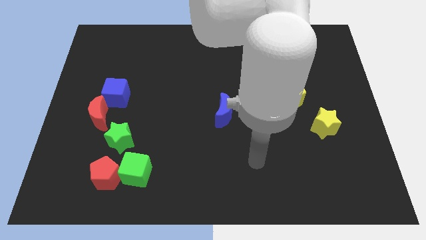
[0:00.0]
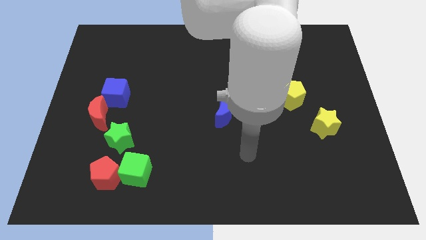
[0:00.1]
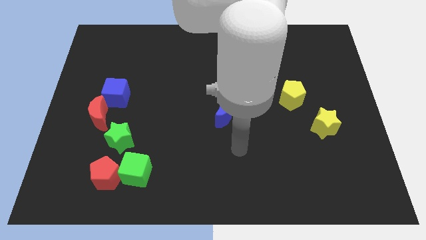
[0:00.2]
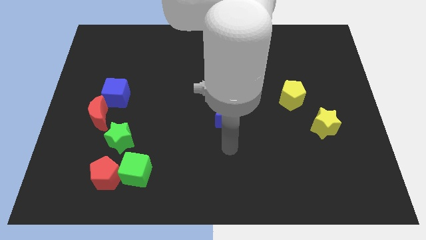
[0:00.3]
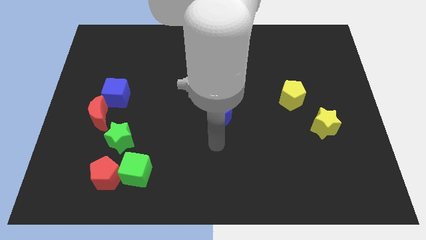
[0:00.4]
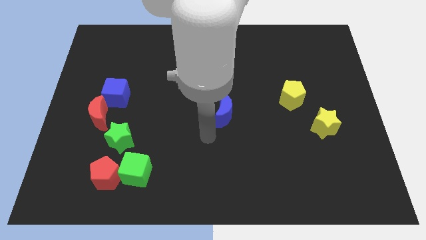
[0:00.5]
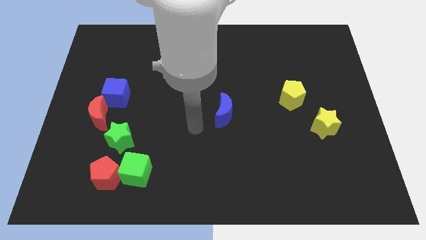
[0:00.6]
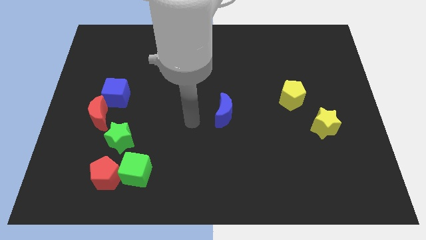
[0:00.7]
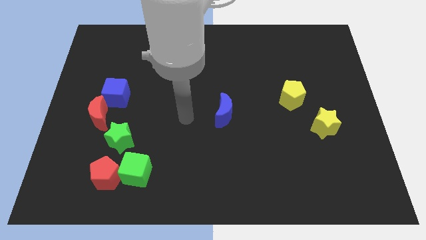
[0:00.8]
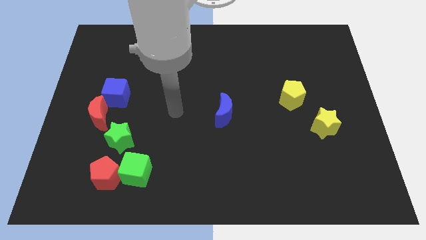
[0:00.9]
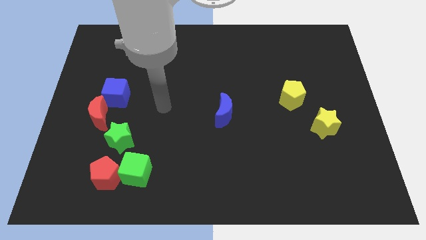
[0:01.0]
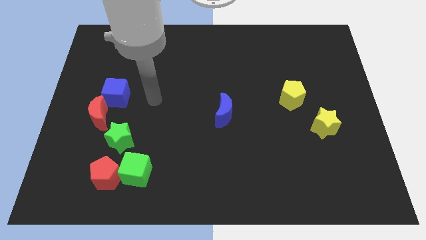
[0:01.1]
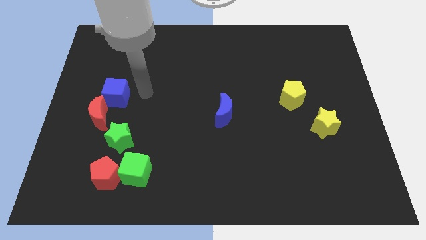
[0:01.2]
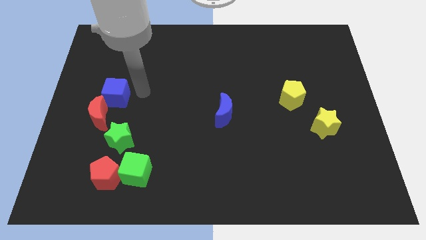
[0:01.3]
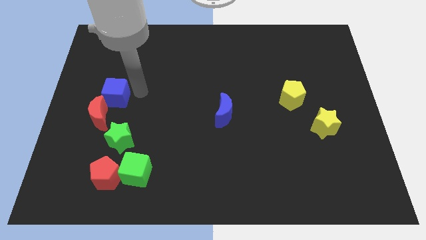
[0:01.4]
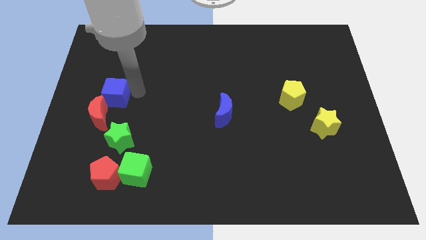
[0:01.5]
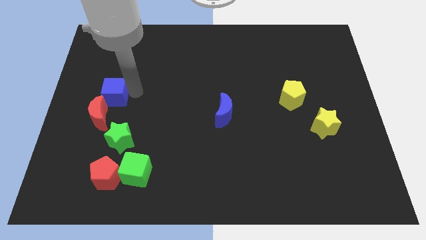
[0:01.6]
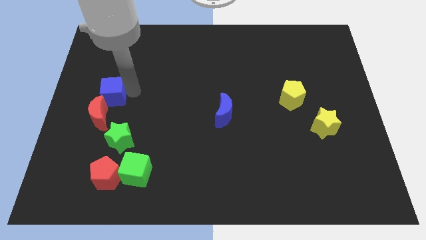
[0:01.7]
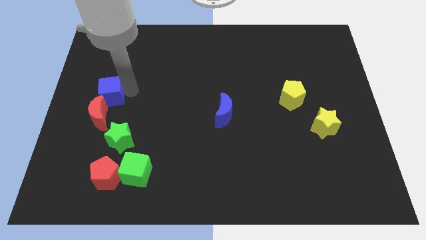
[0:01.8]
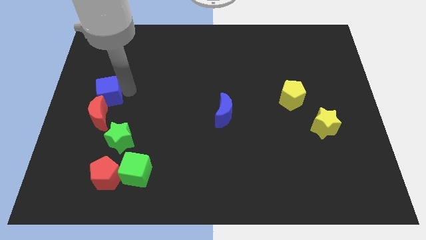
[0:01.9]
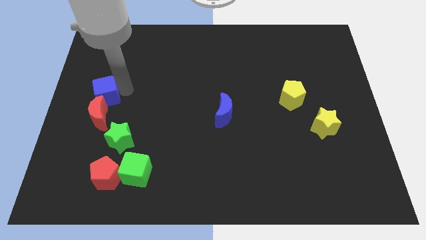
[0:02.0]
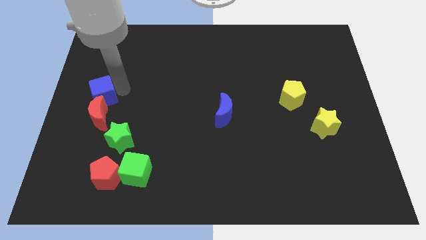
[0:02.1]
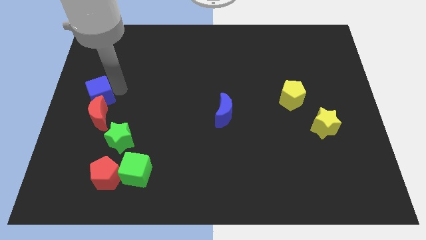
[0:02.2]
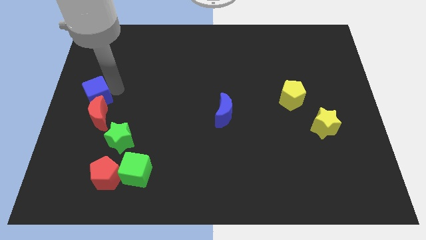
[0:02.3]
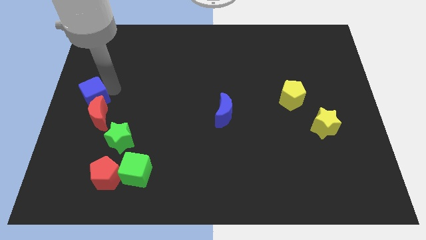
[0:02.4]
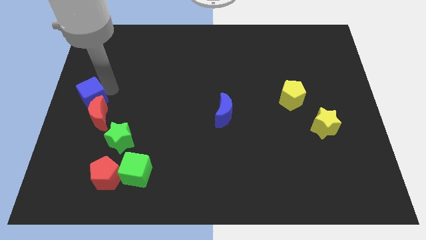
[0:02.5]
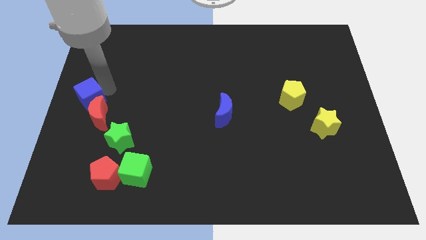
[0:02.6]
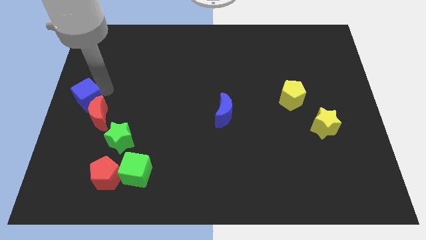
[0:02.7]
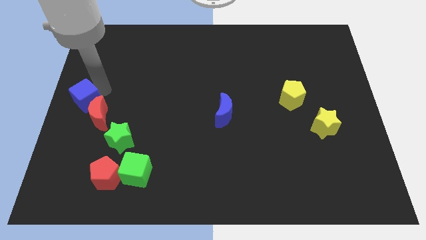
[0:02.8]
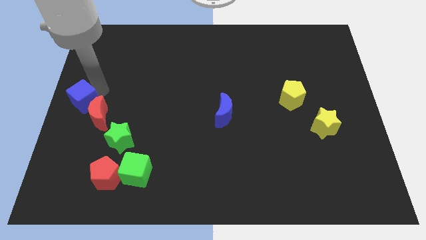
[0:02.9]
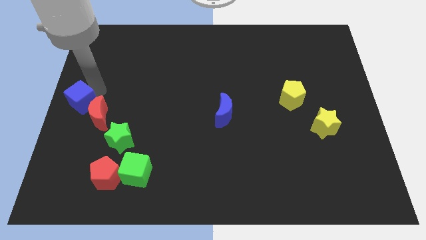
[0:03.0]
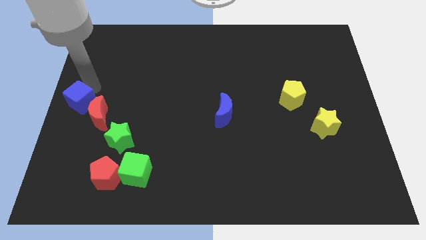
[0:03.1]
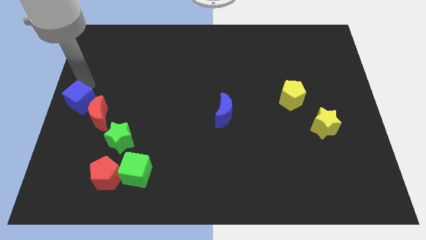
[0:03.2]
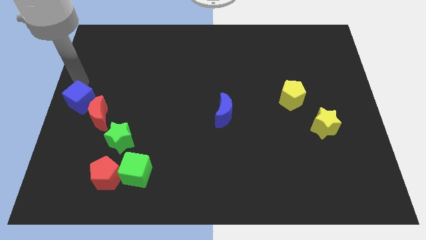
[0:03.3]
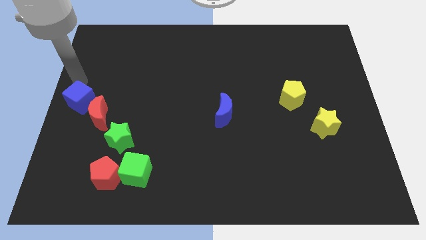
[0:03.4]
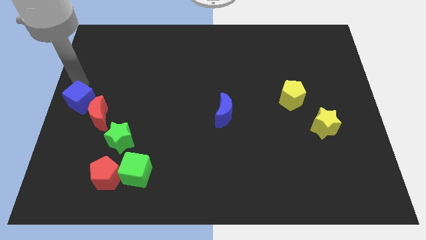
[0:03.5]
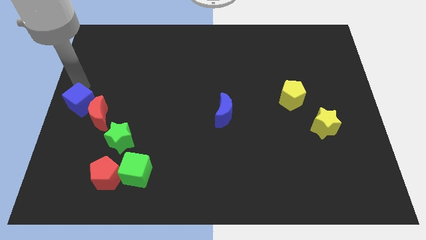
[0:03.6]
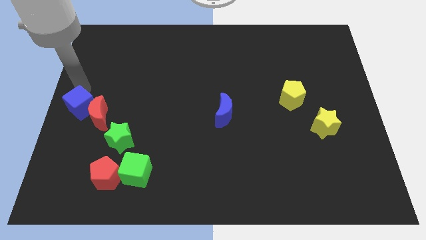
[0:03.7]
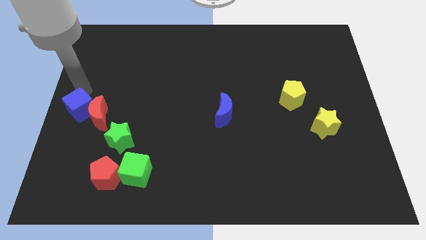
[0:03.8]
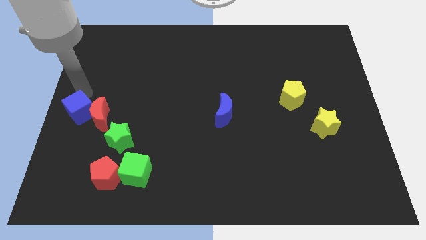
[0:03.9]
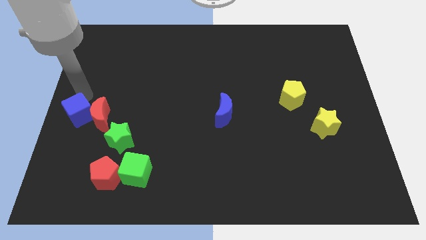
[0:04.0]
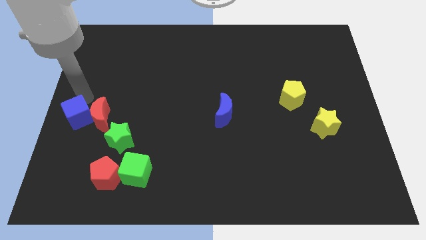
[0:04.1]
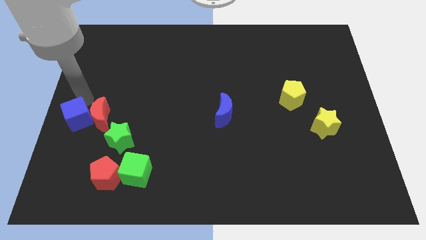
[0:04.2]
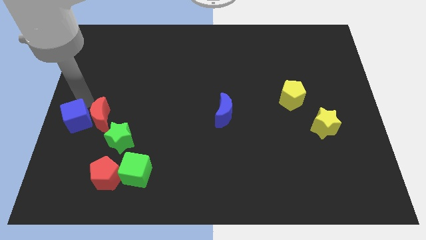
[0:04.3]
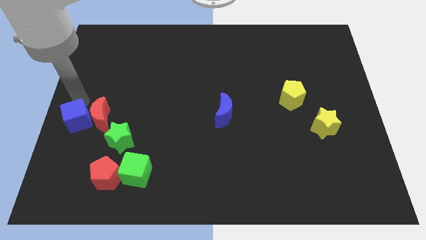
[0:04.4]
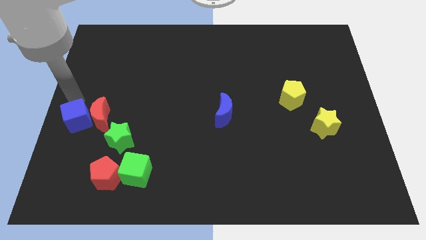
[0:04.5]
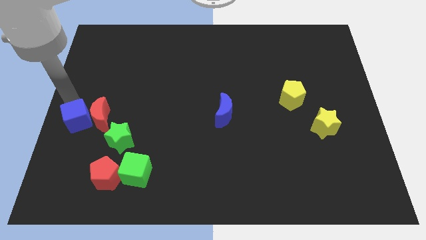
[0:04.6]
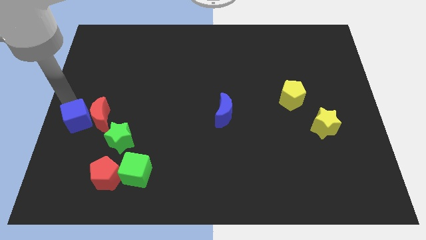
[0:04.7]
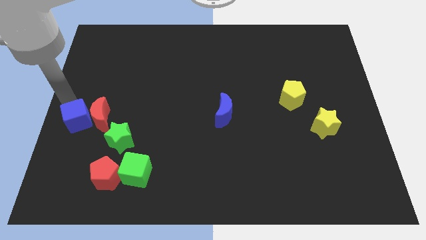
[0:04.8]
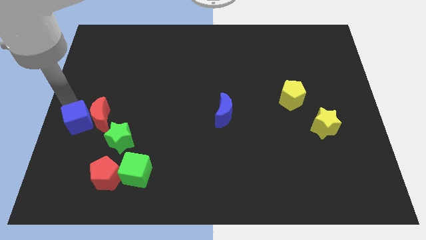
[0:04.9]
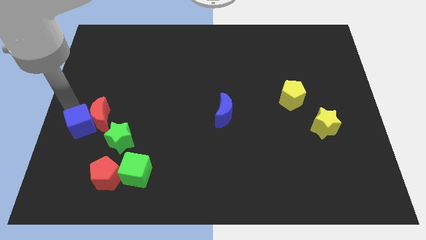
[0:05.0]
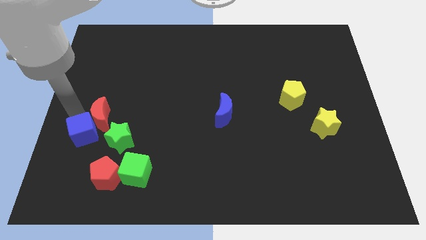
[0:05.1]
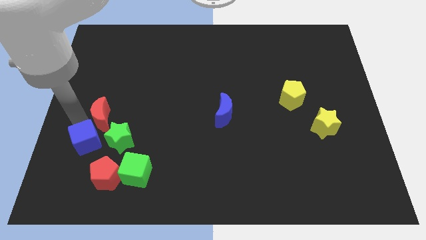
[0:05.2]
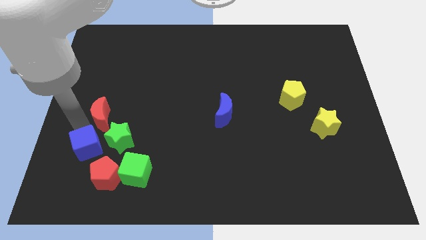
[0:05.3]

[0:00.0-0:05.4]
put the blue cube to the bottom left side of the green star

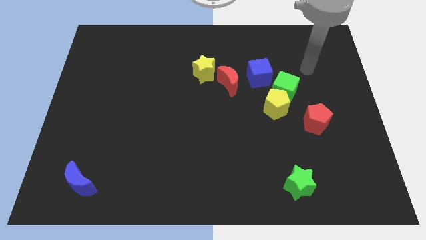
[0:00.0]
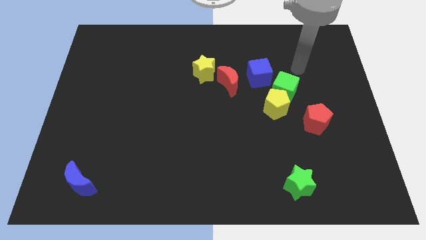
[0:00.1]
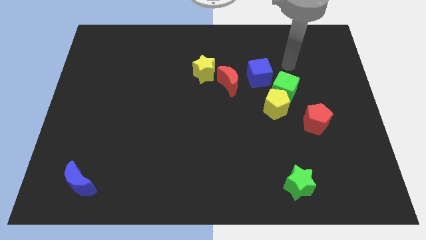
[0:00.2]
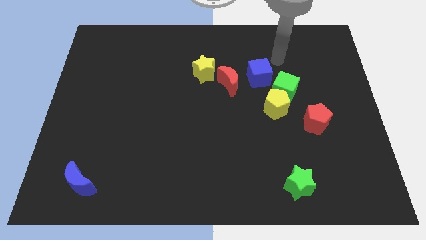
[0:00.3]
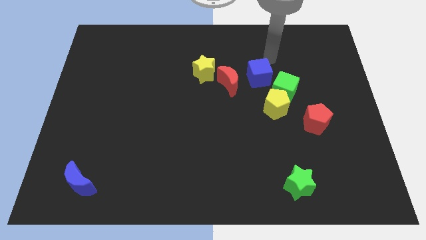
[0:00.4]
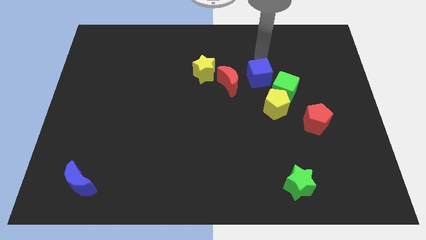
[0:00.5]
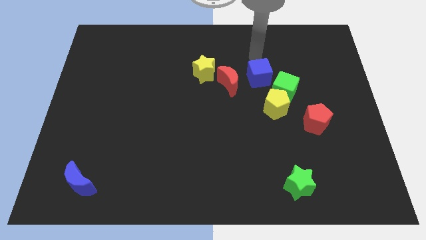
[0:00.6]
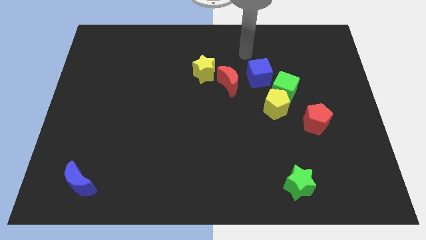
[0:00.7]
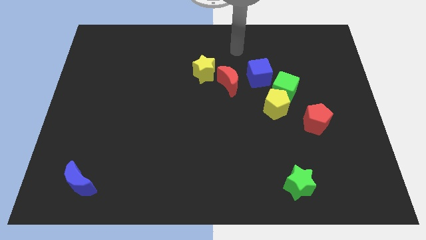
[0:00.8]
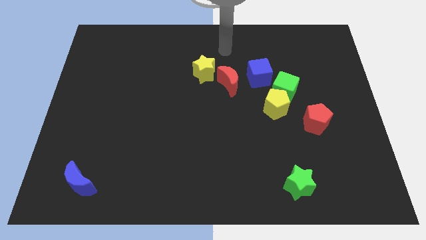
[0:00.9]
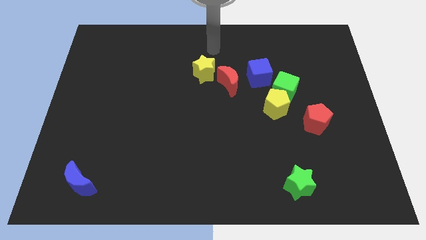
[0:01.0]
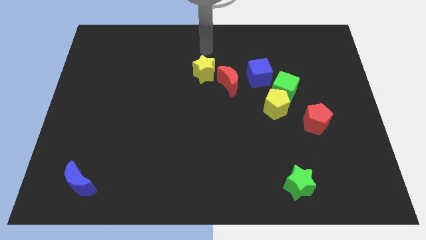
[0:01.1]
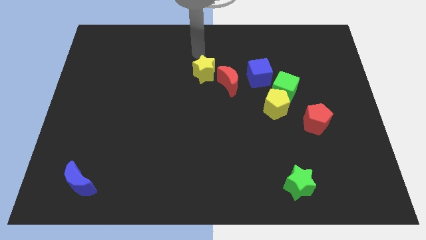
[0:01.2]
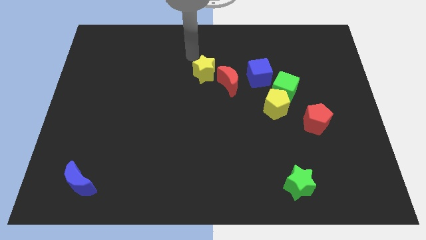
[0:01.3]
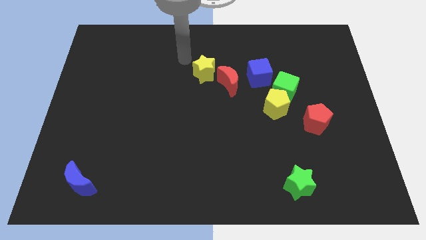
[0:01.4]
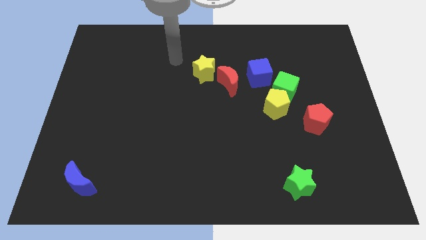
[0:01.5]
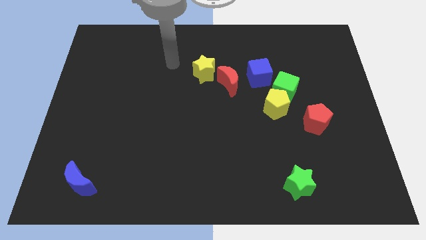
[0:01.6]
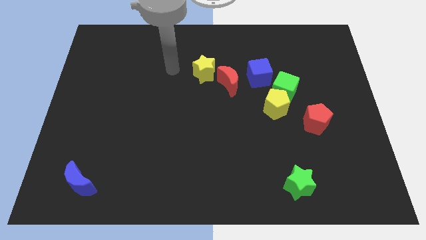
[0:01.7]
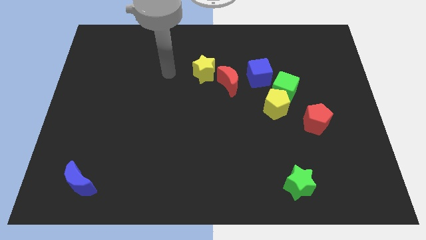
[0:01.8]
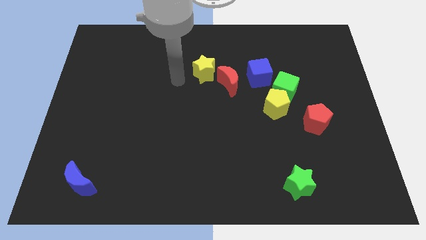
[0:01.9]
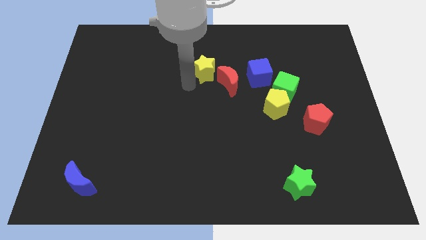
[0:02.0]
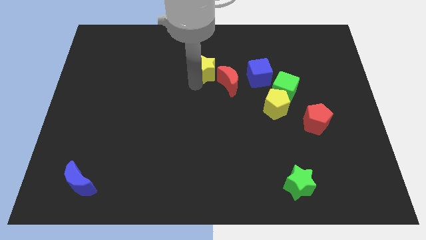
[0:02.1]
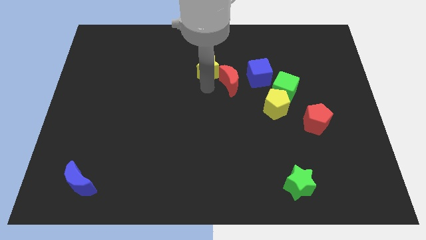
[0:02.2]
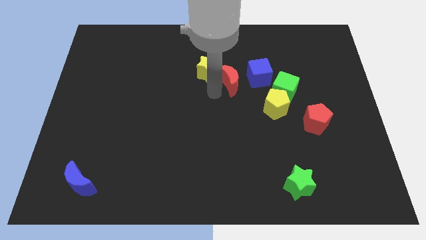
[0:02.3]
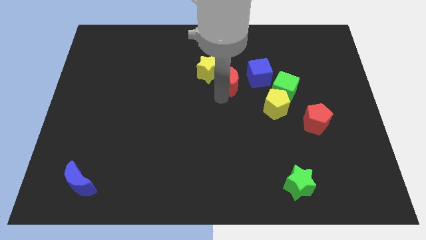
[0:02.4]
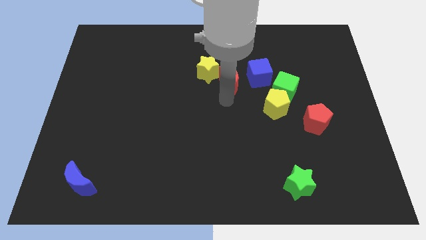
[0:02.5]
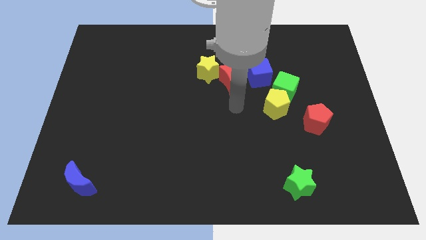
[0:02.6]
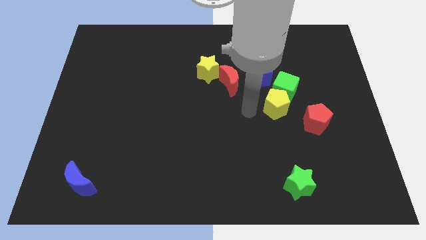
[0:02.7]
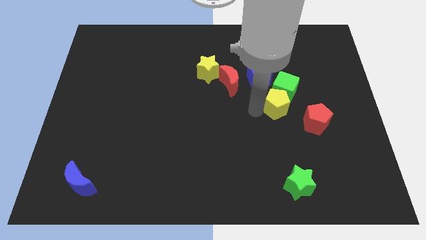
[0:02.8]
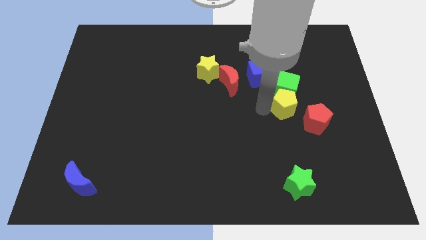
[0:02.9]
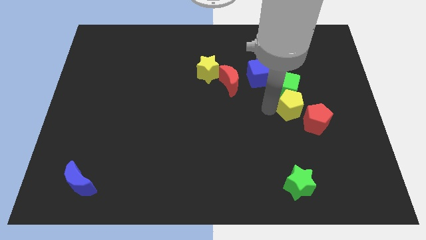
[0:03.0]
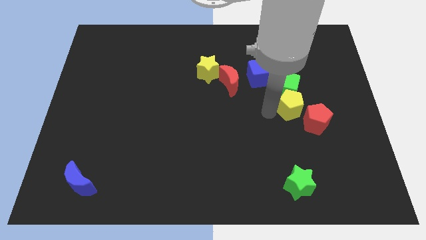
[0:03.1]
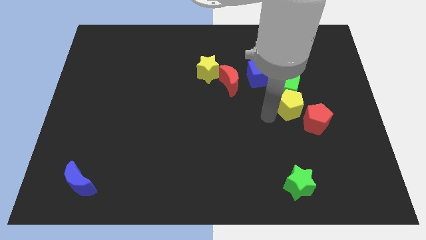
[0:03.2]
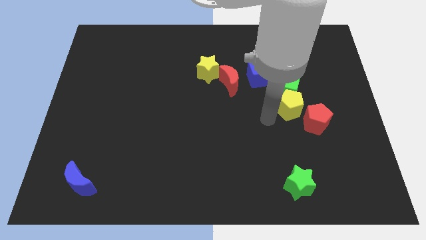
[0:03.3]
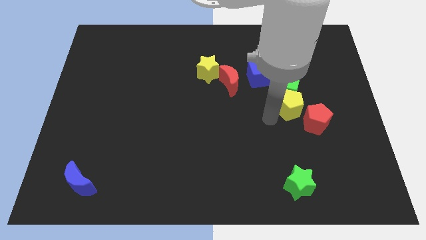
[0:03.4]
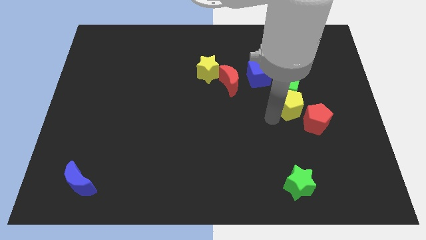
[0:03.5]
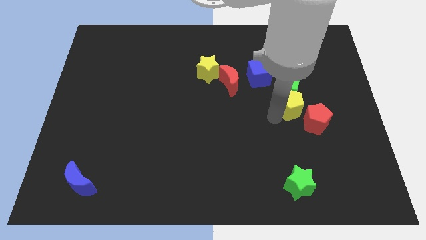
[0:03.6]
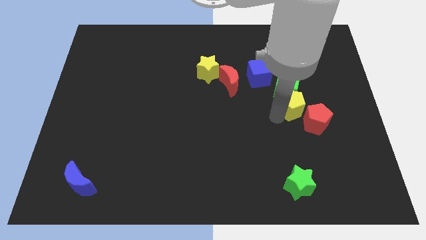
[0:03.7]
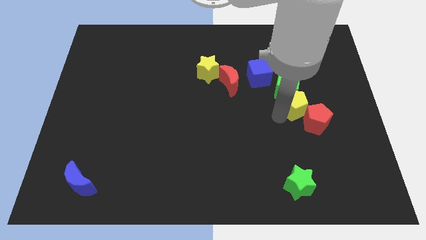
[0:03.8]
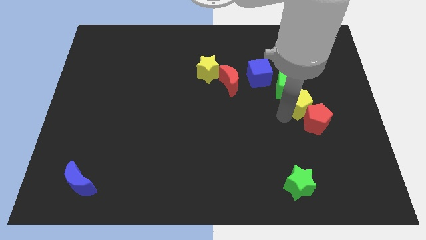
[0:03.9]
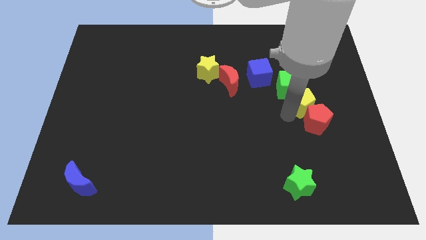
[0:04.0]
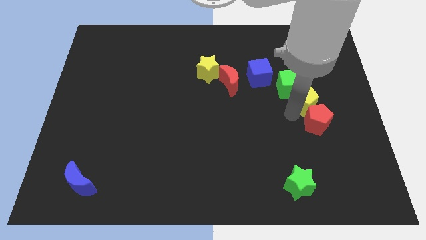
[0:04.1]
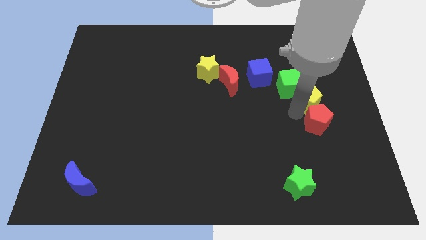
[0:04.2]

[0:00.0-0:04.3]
move the yellow pentagon right of the green cube
